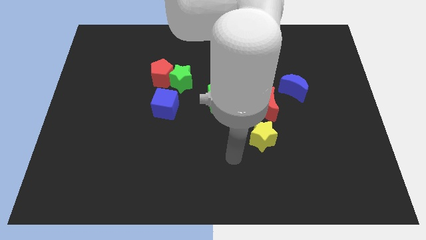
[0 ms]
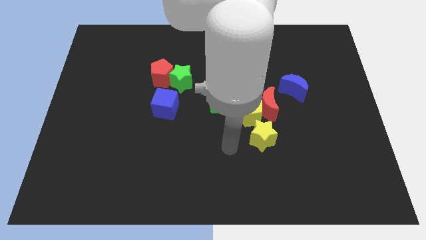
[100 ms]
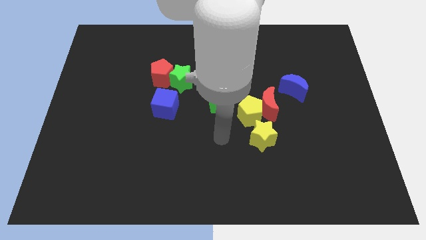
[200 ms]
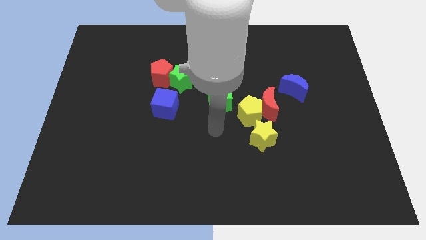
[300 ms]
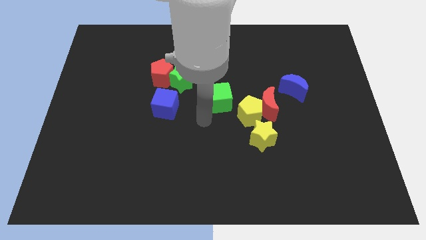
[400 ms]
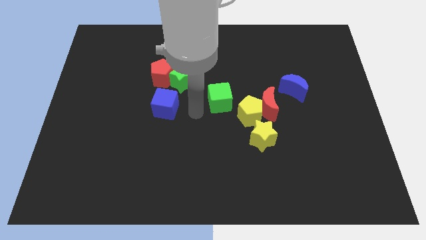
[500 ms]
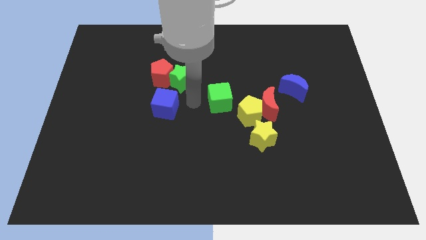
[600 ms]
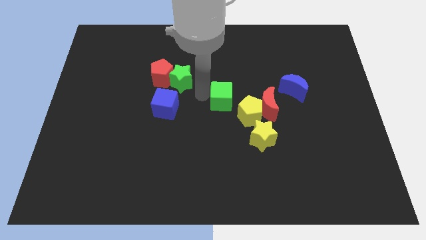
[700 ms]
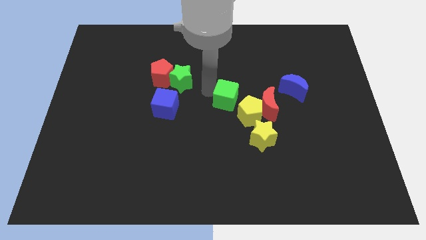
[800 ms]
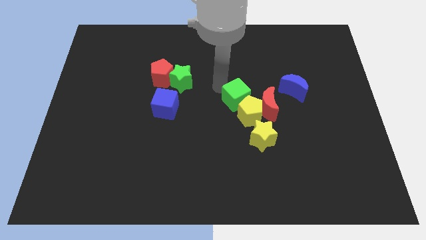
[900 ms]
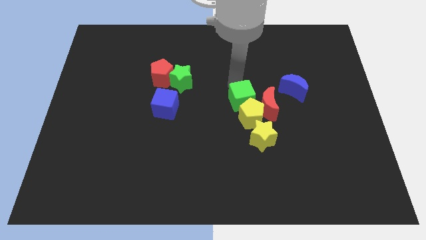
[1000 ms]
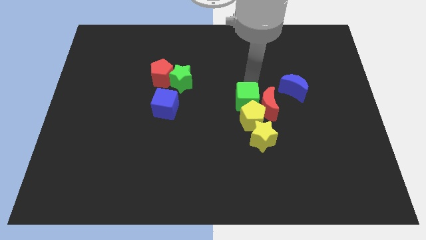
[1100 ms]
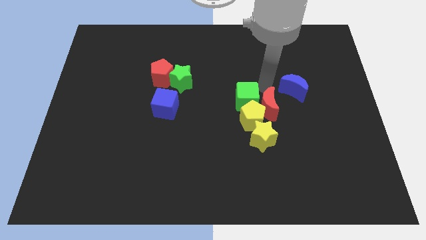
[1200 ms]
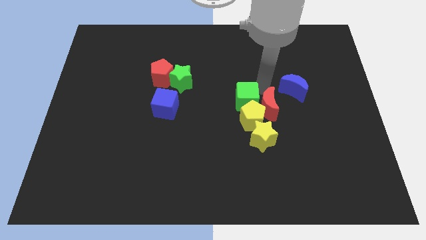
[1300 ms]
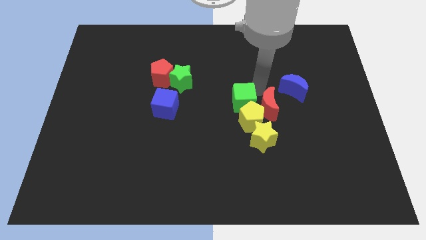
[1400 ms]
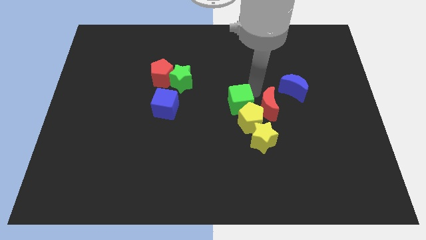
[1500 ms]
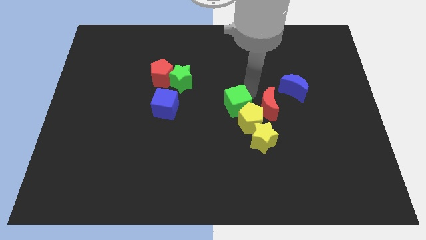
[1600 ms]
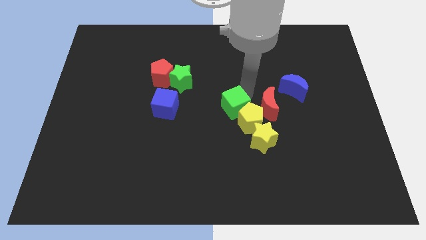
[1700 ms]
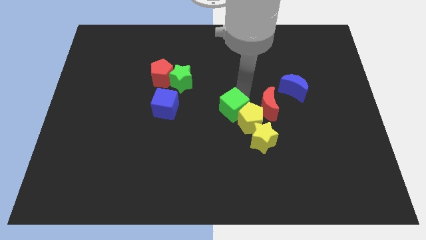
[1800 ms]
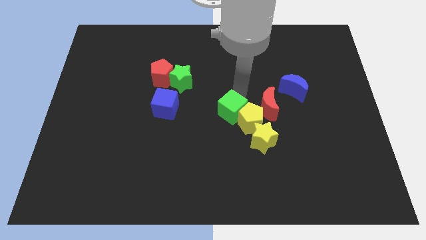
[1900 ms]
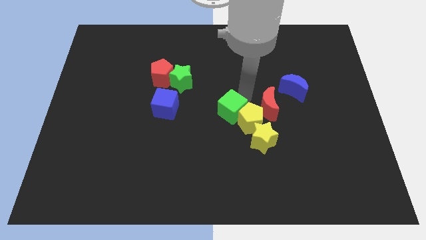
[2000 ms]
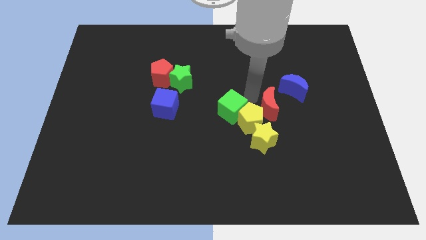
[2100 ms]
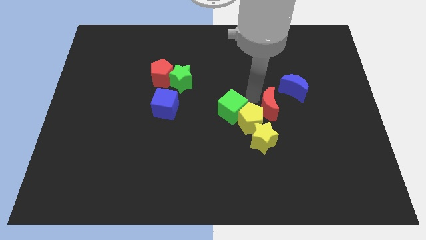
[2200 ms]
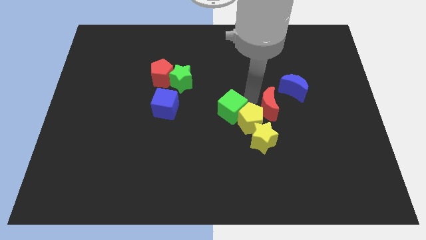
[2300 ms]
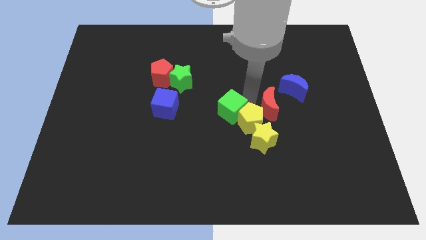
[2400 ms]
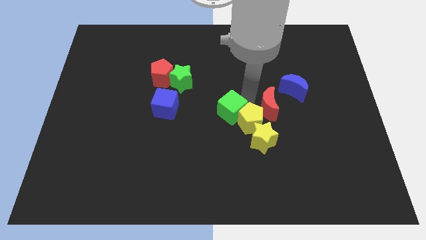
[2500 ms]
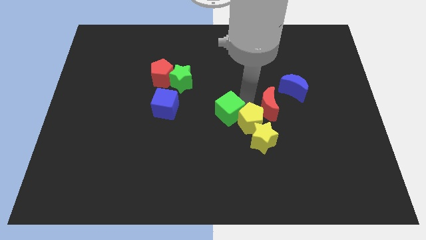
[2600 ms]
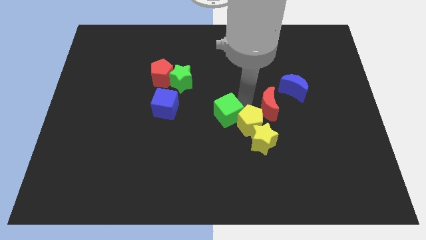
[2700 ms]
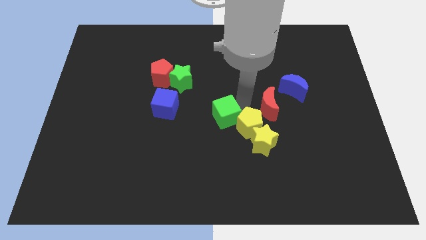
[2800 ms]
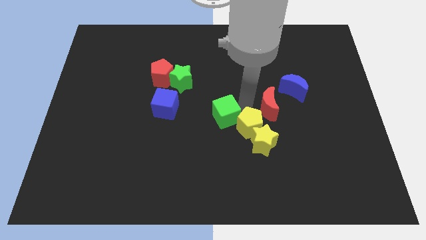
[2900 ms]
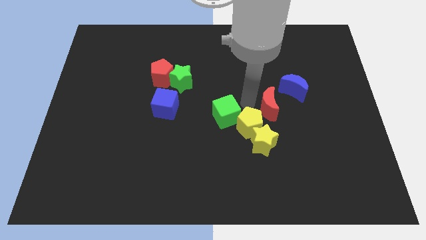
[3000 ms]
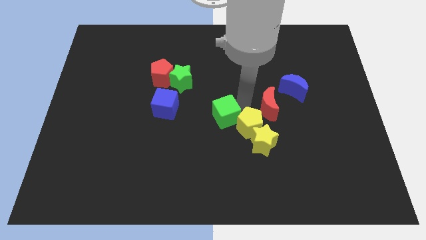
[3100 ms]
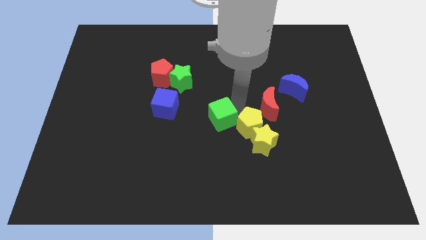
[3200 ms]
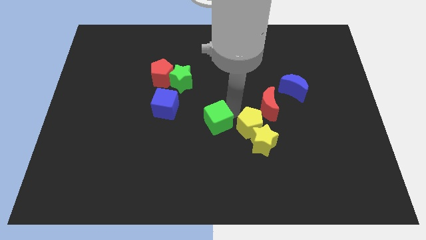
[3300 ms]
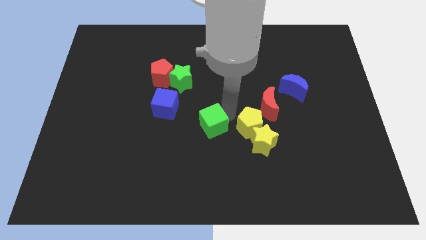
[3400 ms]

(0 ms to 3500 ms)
slightly move the green cube down

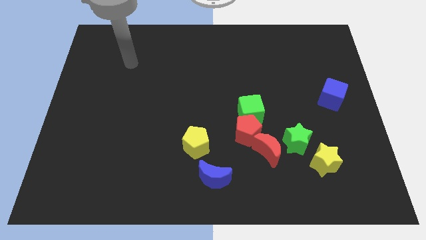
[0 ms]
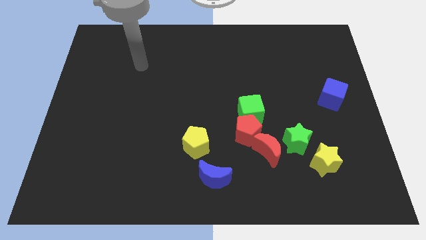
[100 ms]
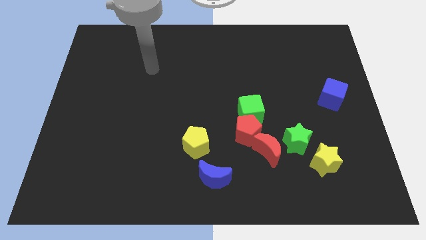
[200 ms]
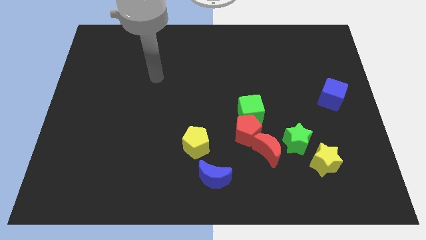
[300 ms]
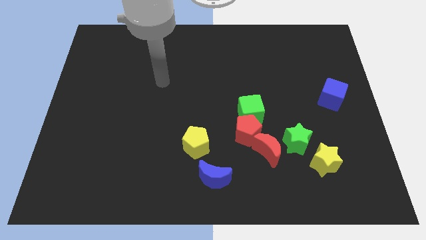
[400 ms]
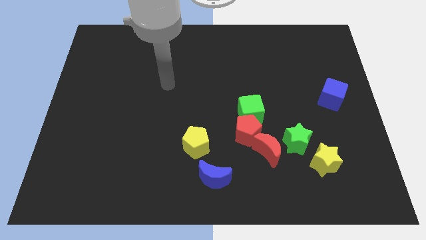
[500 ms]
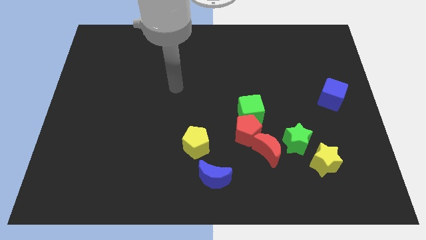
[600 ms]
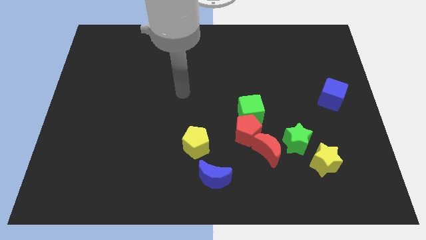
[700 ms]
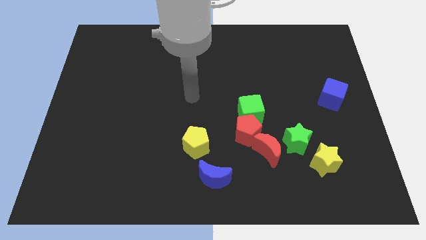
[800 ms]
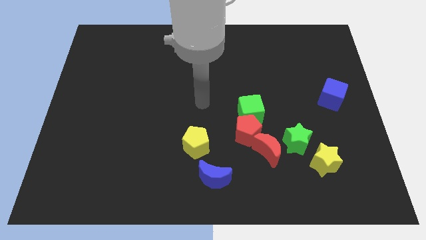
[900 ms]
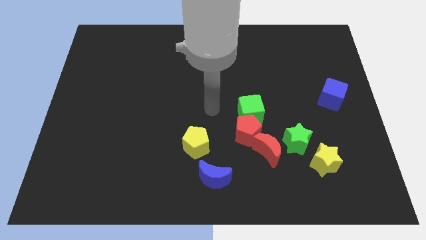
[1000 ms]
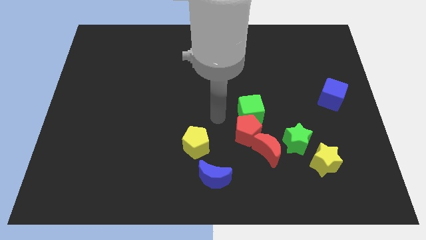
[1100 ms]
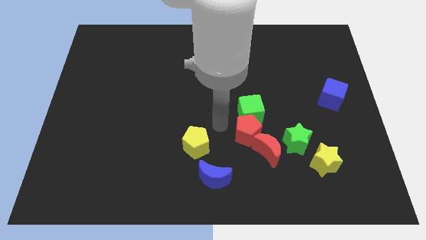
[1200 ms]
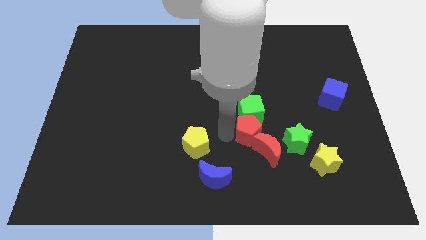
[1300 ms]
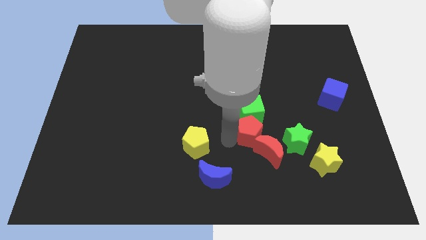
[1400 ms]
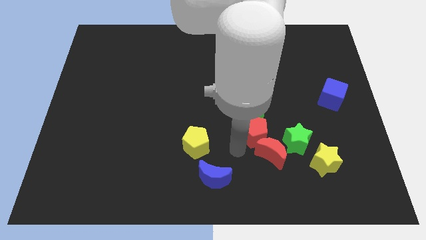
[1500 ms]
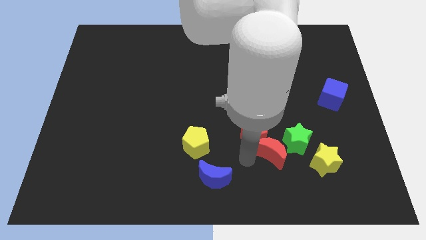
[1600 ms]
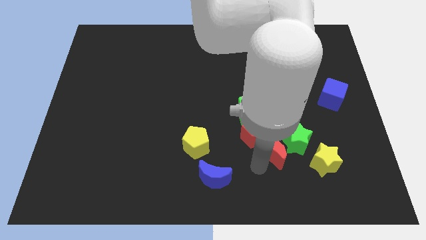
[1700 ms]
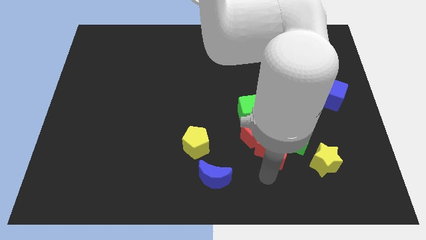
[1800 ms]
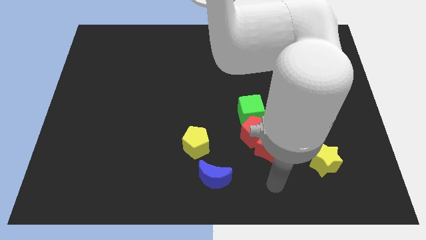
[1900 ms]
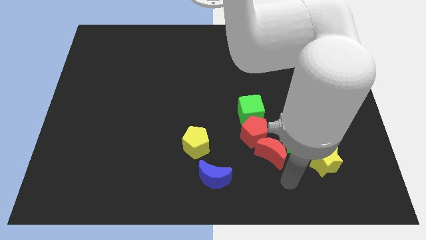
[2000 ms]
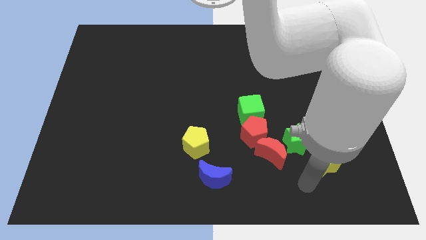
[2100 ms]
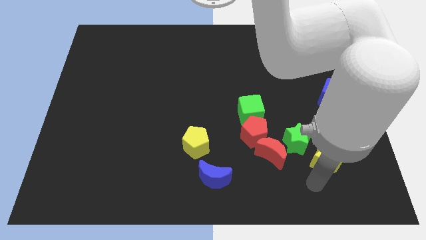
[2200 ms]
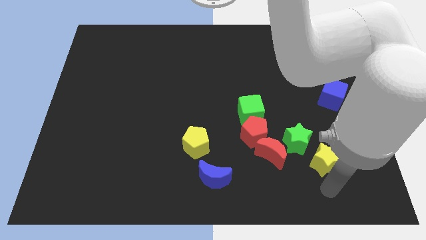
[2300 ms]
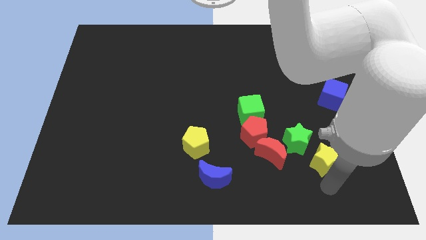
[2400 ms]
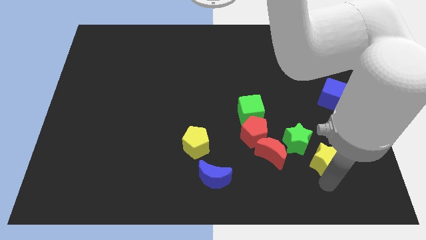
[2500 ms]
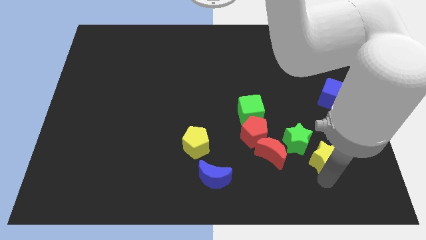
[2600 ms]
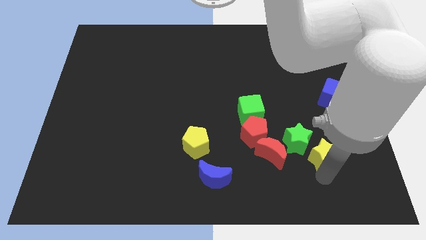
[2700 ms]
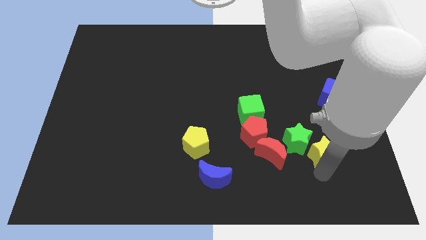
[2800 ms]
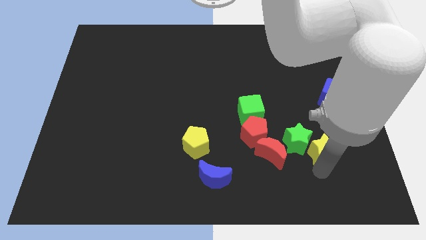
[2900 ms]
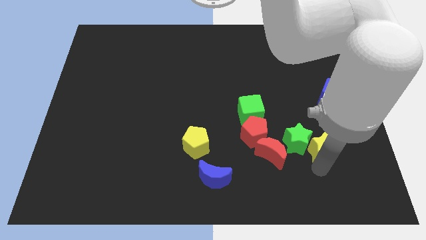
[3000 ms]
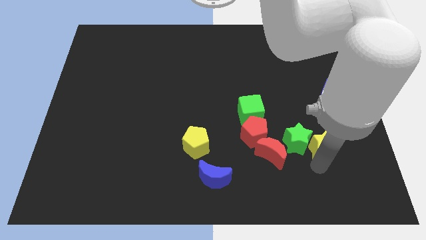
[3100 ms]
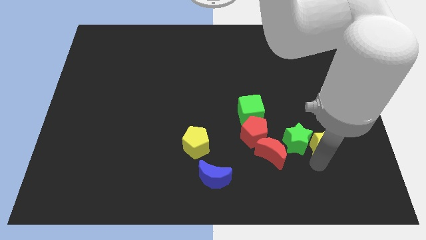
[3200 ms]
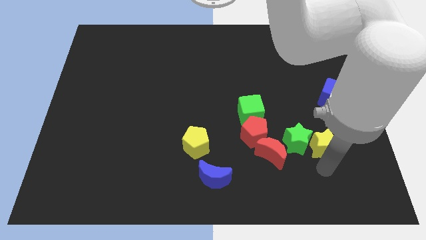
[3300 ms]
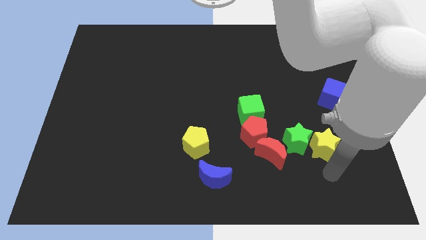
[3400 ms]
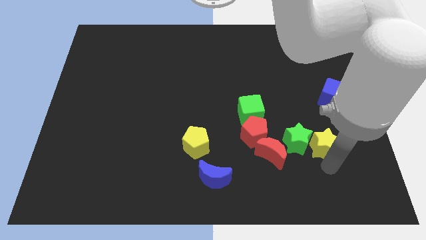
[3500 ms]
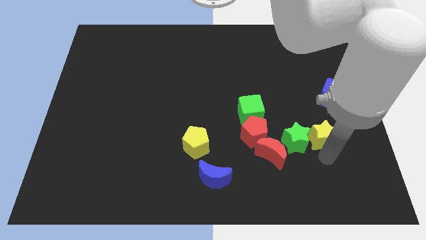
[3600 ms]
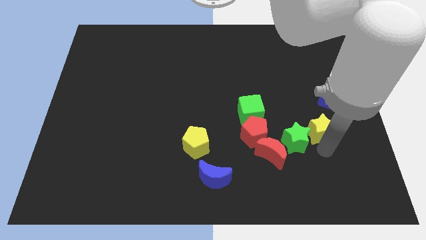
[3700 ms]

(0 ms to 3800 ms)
move the yellow star somewhat up

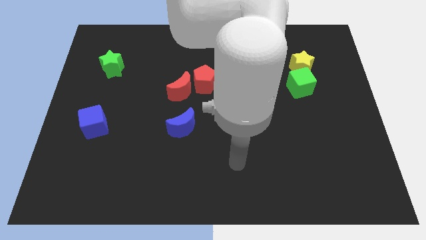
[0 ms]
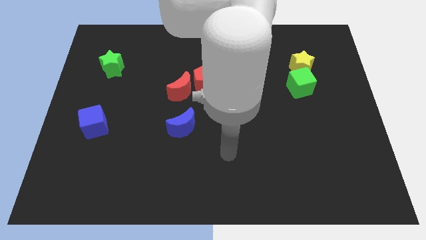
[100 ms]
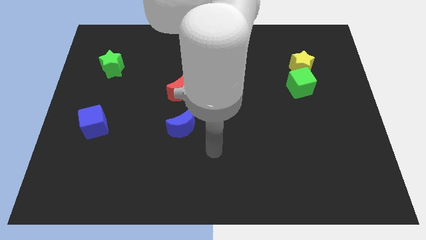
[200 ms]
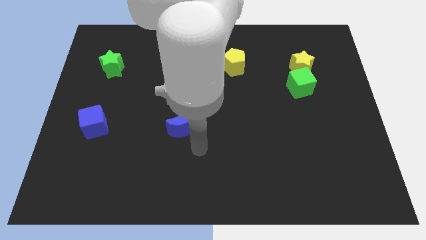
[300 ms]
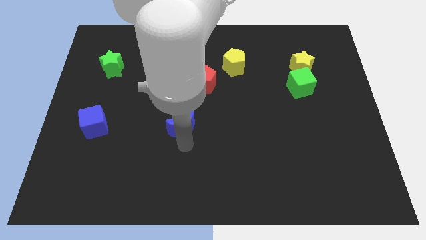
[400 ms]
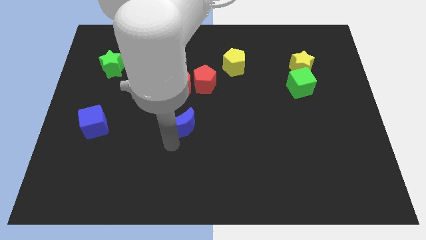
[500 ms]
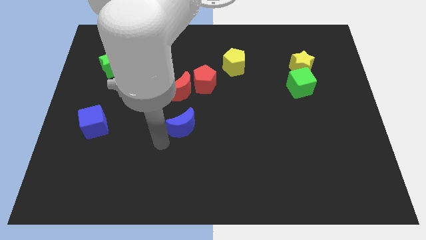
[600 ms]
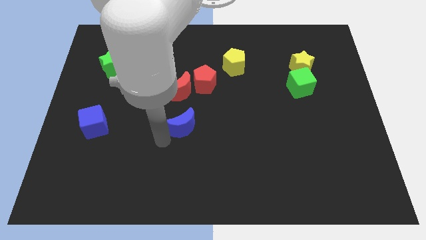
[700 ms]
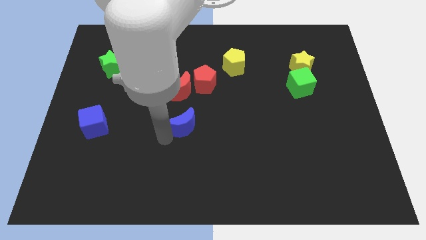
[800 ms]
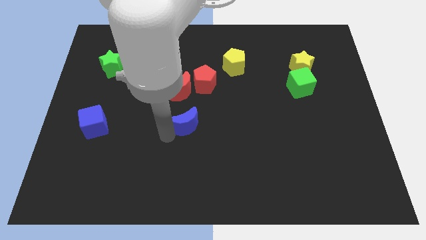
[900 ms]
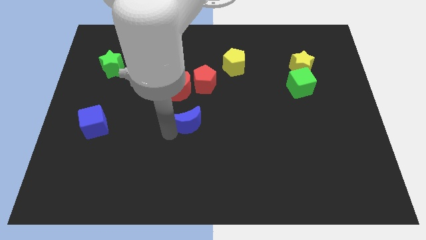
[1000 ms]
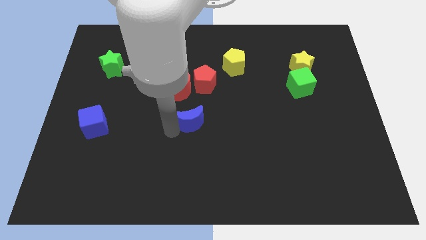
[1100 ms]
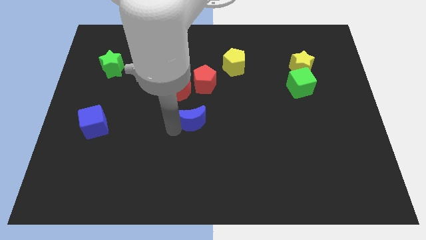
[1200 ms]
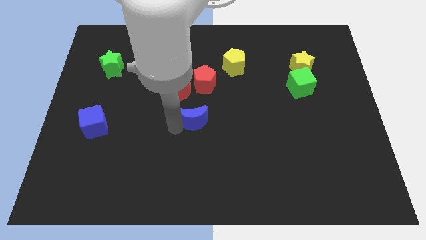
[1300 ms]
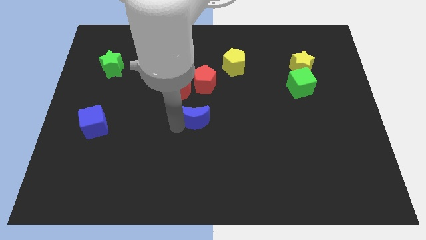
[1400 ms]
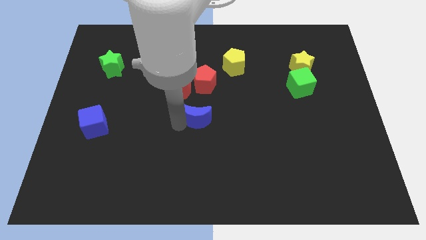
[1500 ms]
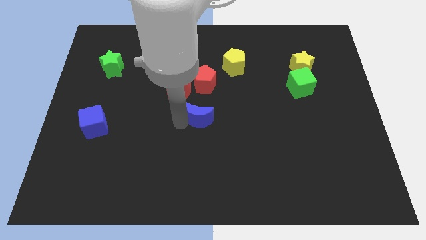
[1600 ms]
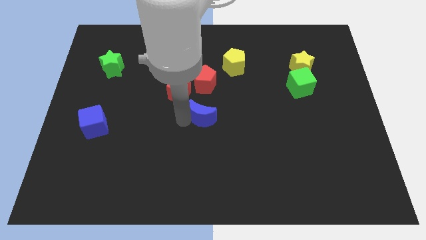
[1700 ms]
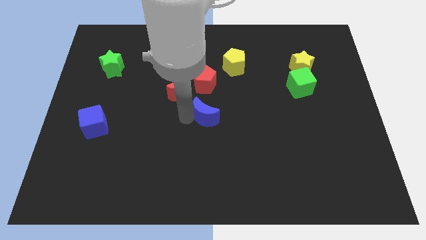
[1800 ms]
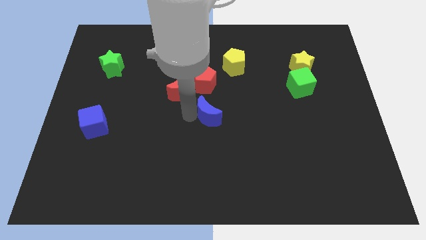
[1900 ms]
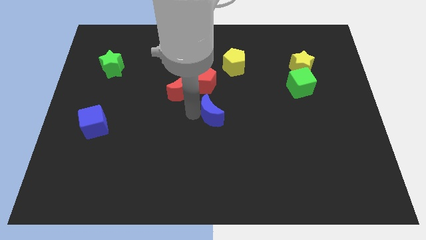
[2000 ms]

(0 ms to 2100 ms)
slide the blue moon somewhat diagonally upwards and right
